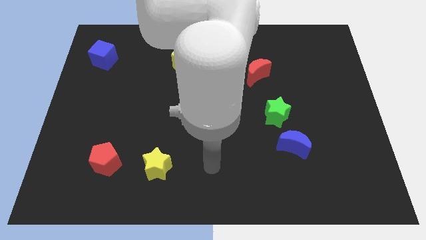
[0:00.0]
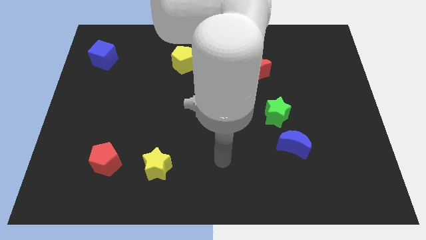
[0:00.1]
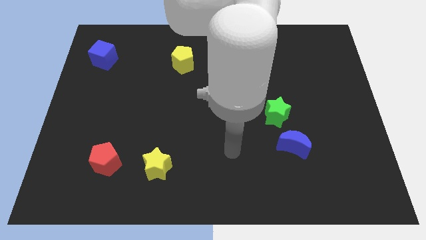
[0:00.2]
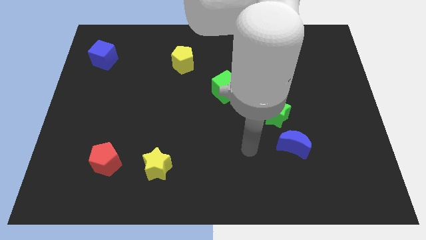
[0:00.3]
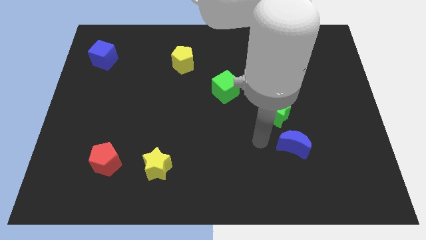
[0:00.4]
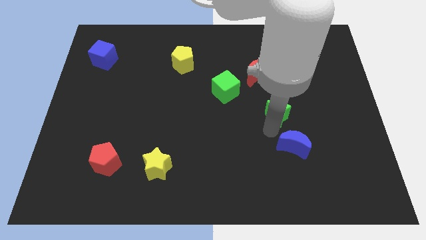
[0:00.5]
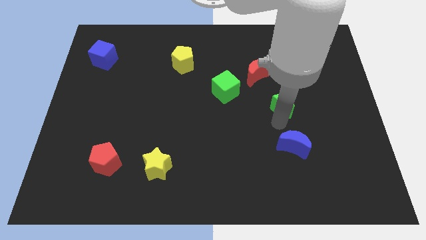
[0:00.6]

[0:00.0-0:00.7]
move the blue moon away from the green star

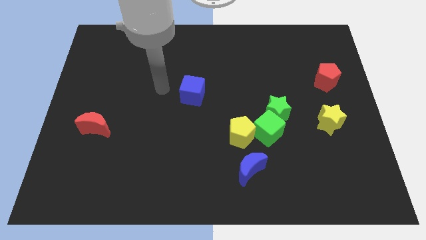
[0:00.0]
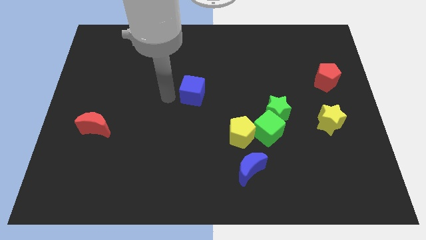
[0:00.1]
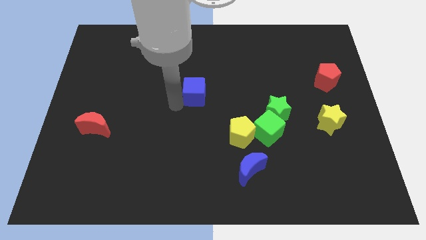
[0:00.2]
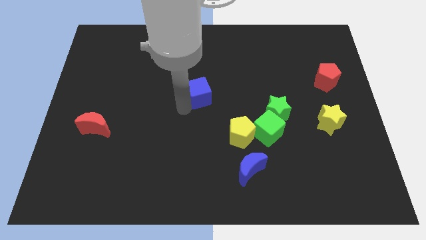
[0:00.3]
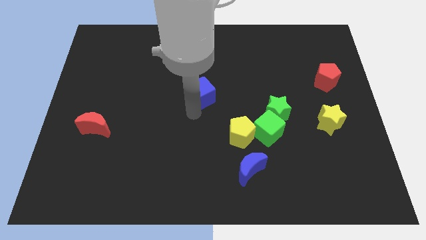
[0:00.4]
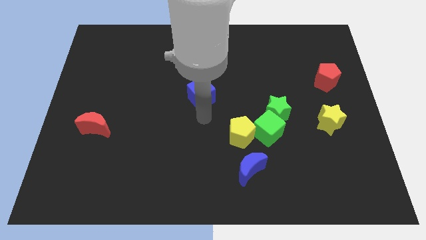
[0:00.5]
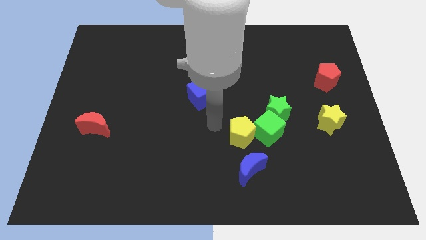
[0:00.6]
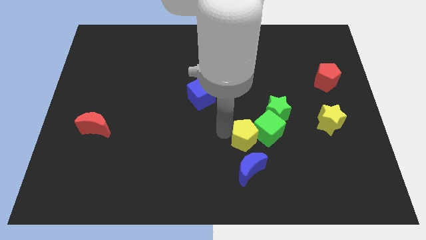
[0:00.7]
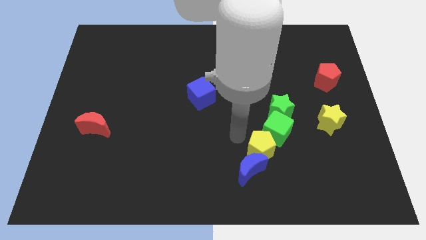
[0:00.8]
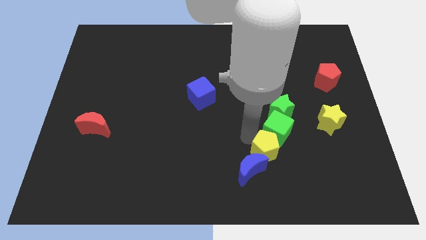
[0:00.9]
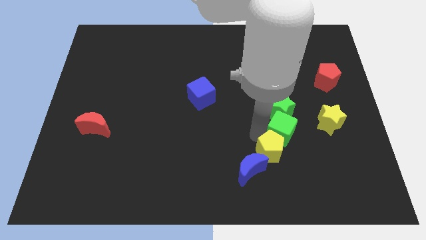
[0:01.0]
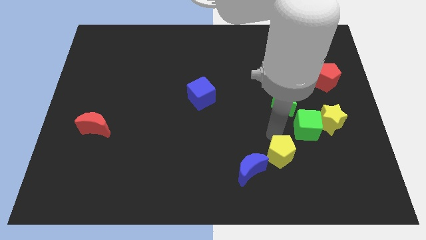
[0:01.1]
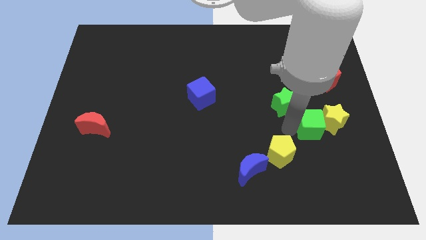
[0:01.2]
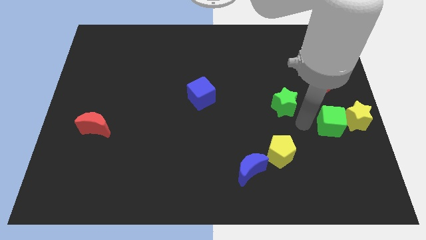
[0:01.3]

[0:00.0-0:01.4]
separate the green star from the green cube

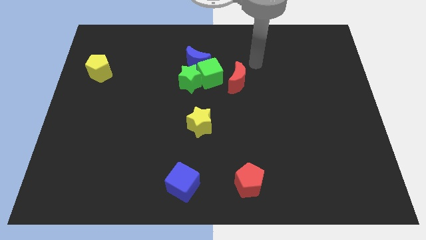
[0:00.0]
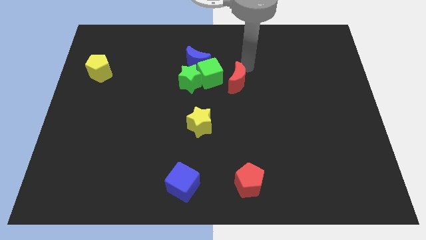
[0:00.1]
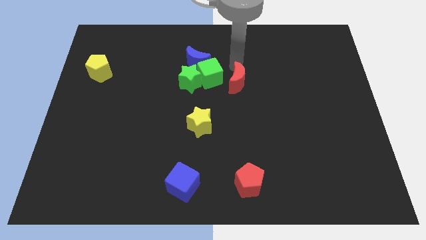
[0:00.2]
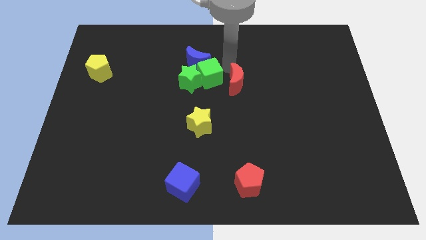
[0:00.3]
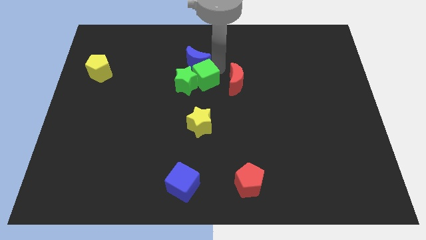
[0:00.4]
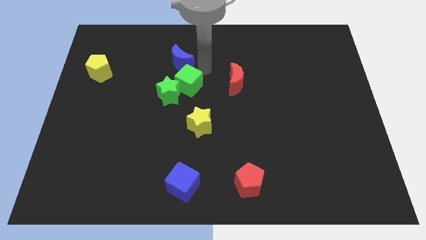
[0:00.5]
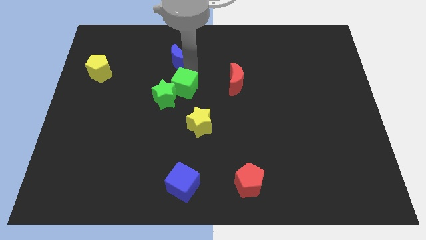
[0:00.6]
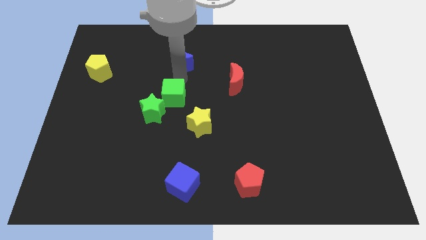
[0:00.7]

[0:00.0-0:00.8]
separate the green star from the green cube and blue moon

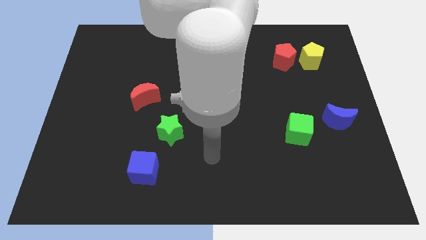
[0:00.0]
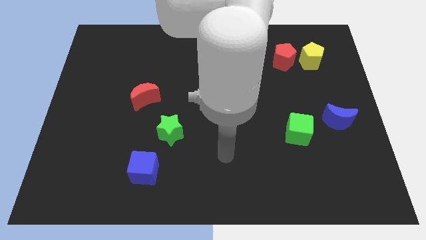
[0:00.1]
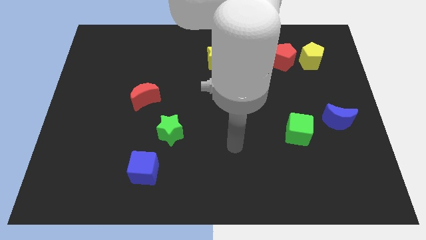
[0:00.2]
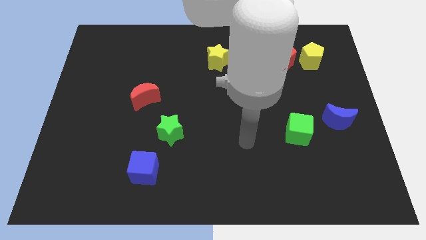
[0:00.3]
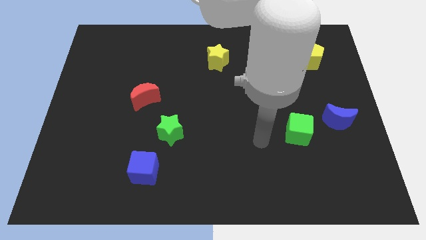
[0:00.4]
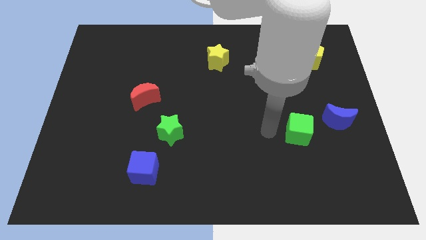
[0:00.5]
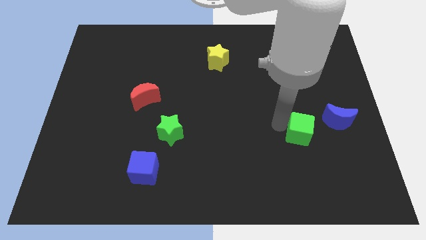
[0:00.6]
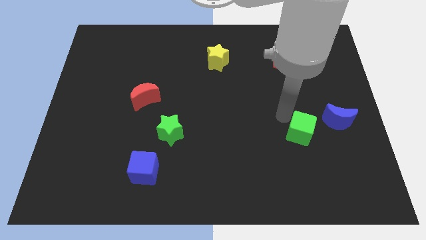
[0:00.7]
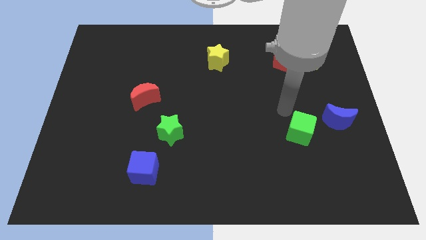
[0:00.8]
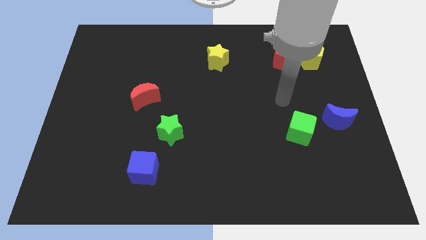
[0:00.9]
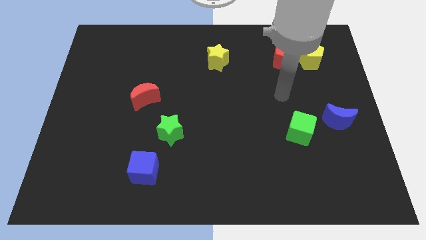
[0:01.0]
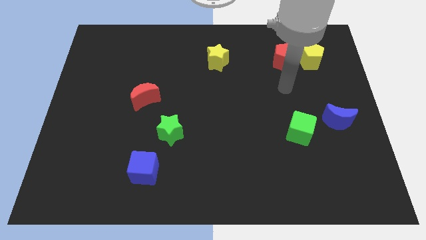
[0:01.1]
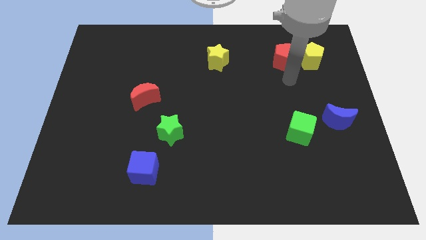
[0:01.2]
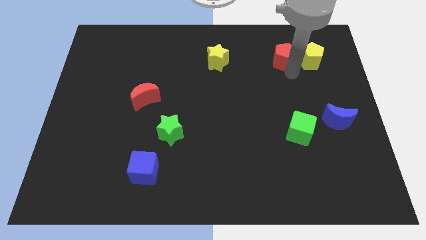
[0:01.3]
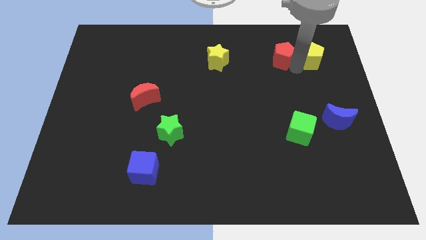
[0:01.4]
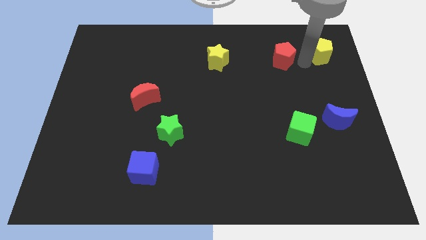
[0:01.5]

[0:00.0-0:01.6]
move the red pentagon away from the yellow pentagon

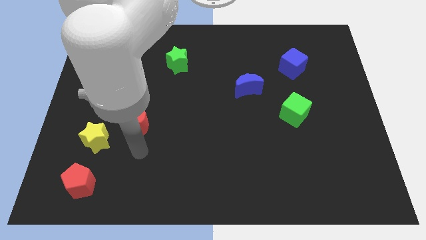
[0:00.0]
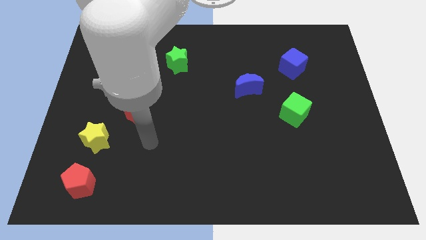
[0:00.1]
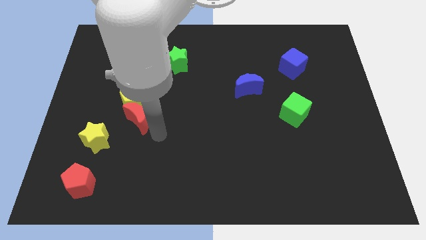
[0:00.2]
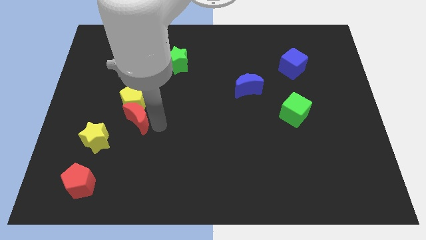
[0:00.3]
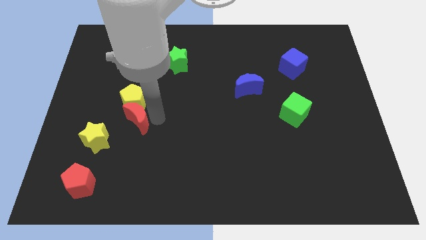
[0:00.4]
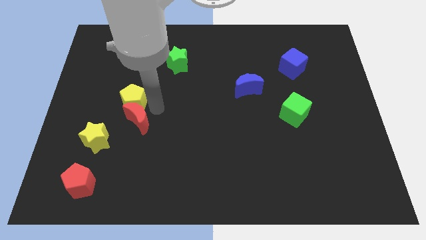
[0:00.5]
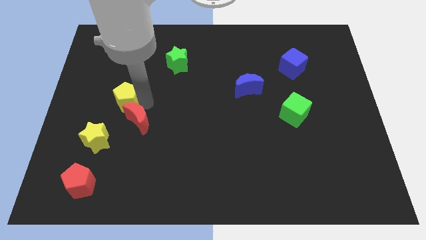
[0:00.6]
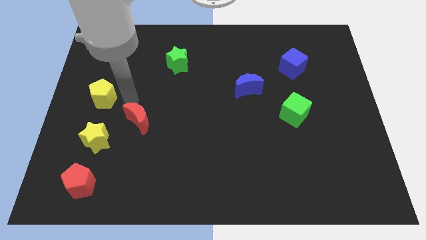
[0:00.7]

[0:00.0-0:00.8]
move the red moon away from the yellow pentagon

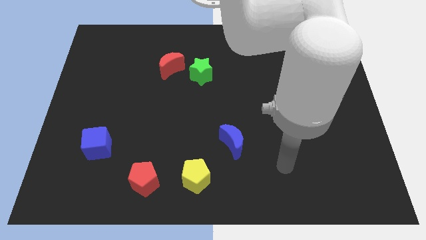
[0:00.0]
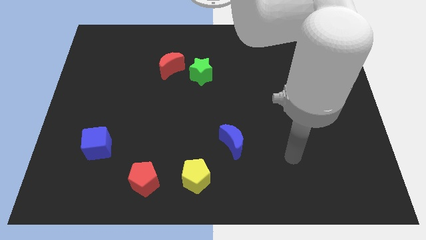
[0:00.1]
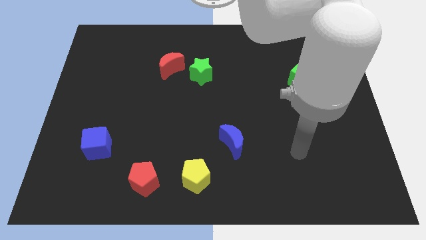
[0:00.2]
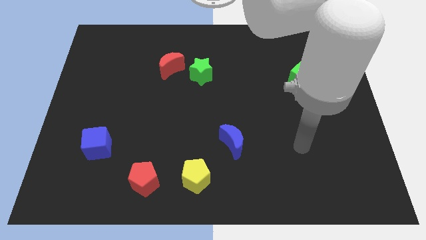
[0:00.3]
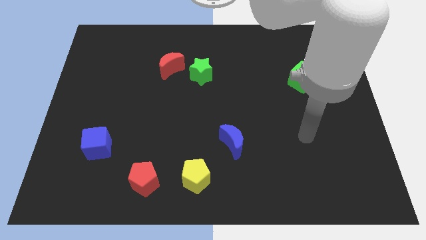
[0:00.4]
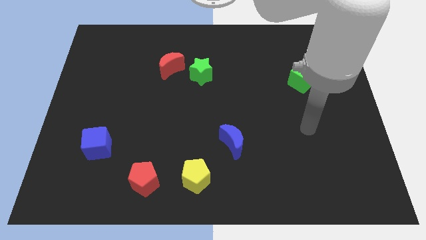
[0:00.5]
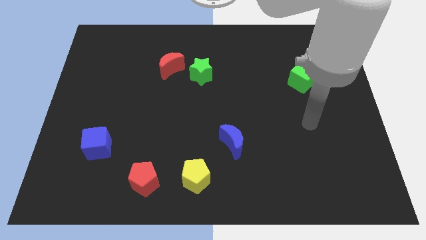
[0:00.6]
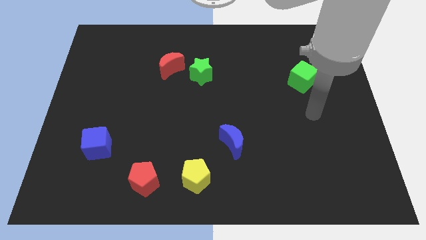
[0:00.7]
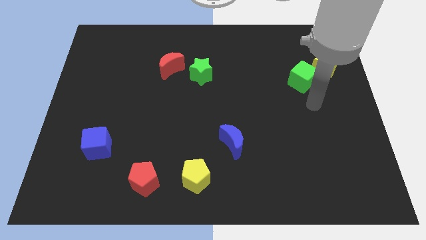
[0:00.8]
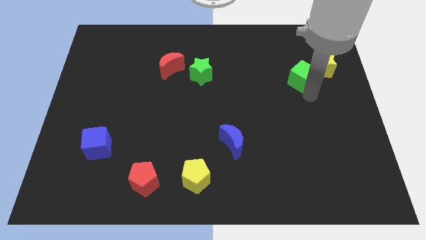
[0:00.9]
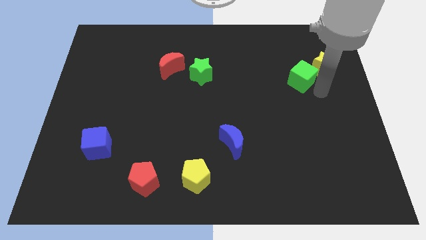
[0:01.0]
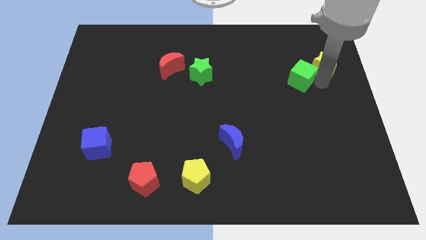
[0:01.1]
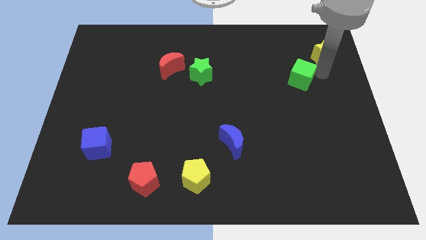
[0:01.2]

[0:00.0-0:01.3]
move the green cube away from the yellow star

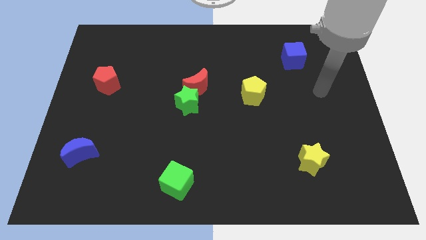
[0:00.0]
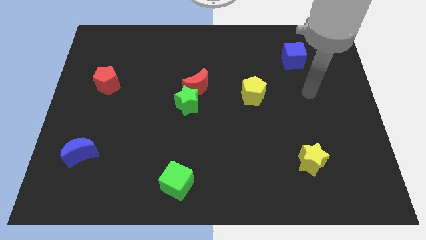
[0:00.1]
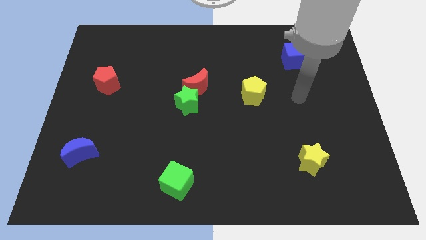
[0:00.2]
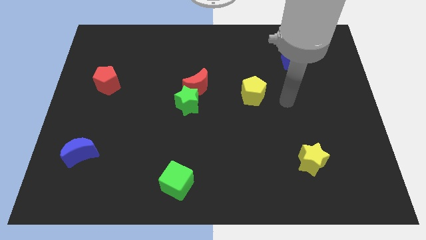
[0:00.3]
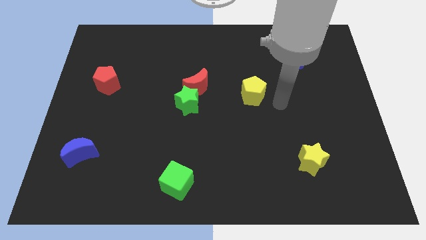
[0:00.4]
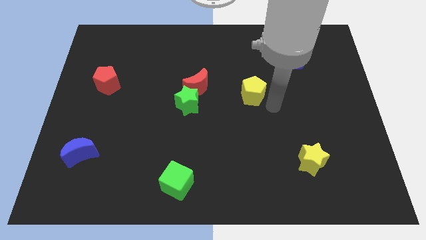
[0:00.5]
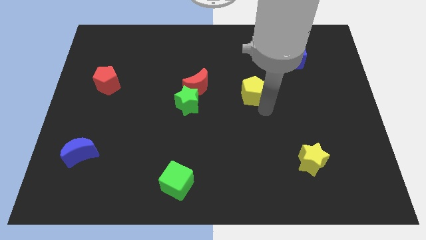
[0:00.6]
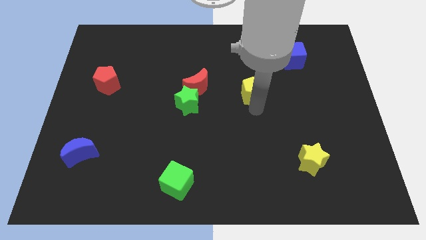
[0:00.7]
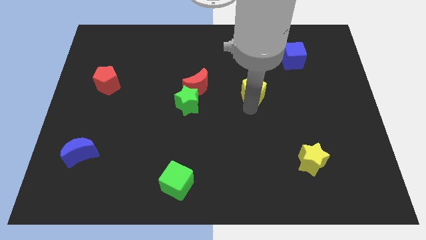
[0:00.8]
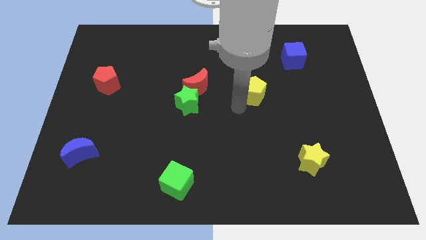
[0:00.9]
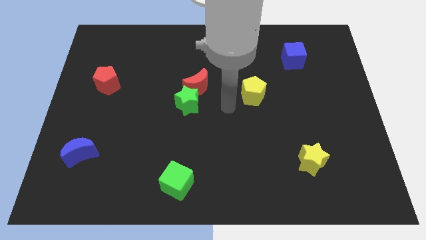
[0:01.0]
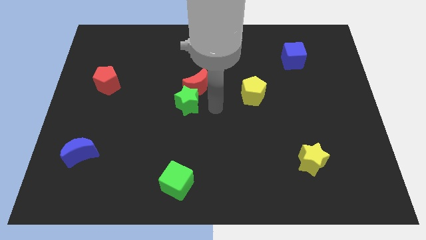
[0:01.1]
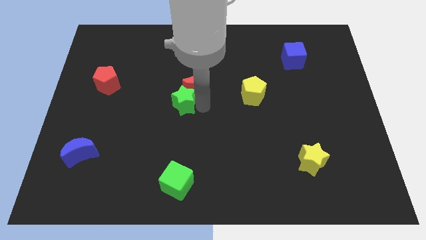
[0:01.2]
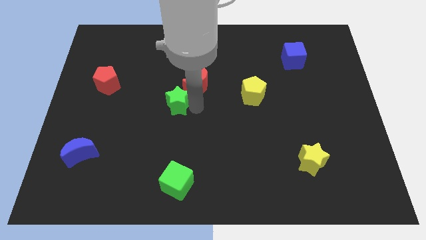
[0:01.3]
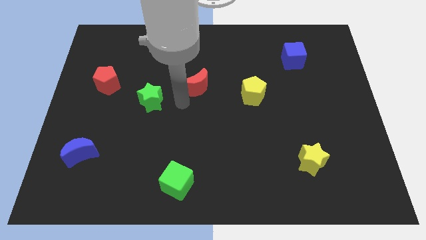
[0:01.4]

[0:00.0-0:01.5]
separate the red moon from the green star

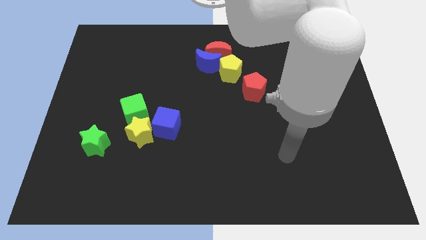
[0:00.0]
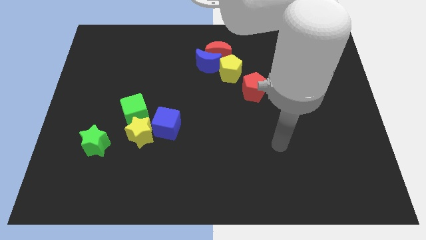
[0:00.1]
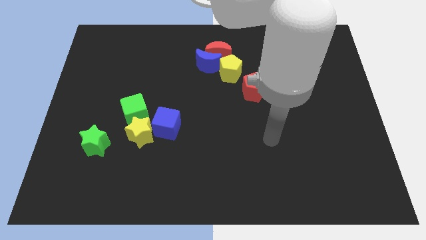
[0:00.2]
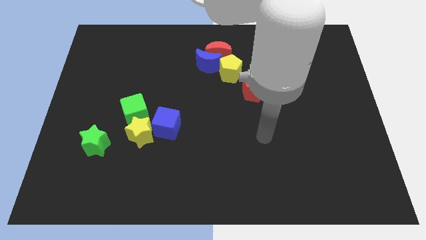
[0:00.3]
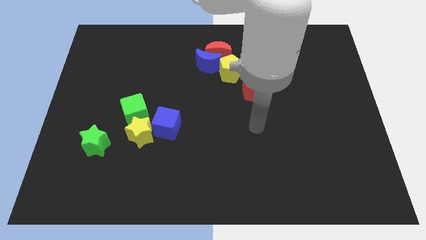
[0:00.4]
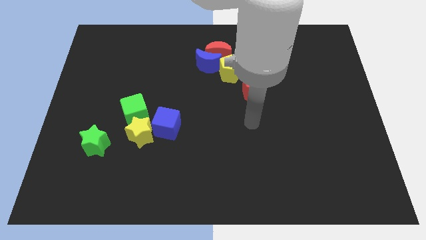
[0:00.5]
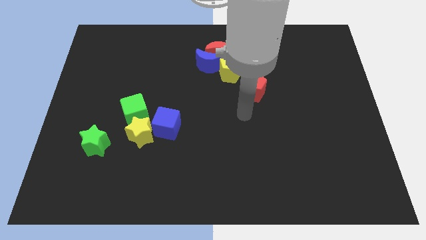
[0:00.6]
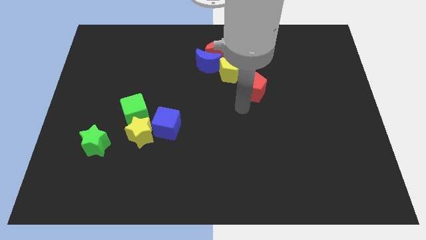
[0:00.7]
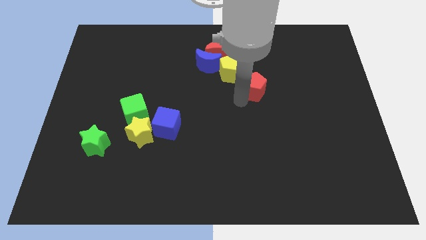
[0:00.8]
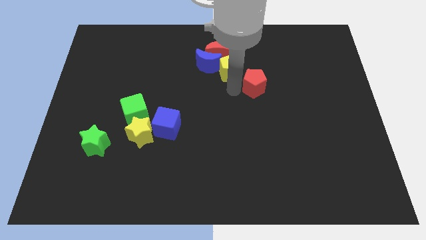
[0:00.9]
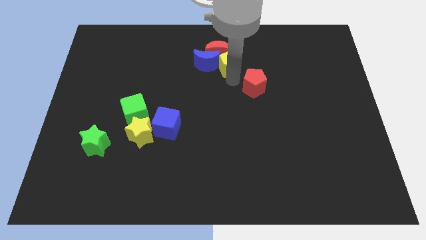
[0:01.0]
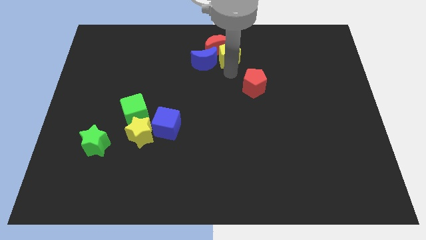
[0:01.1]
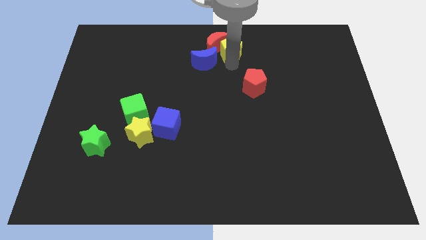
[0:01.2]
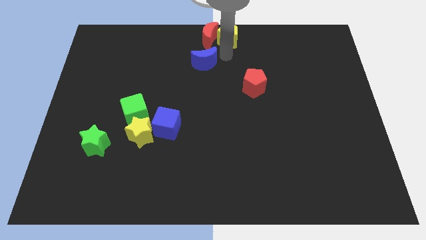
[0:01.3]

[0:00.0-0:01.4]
separate the blue moon from the red moon and yellow pentagon
